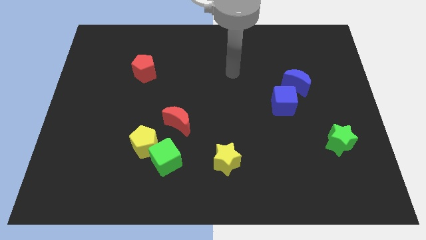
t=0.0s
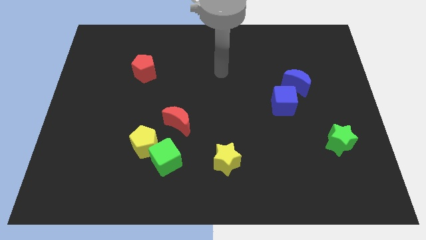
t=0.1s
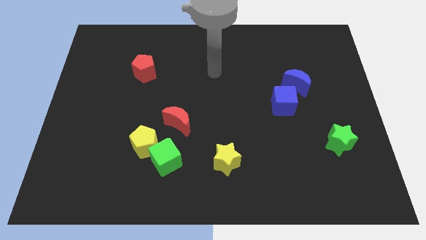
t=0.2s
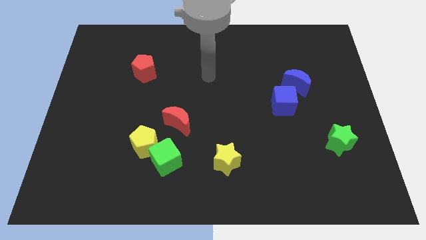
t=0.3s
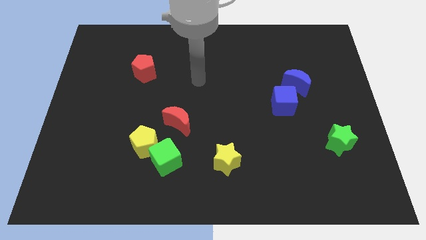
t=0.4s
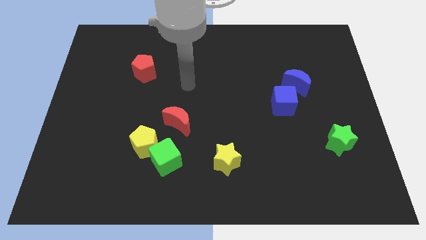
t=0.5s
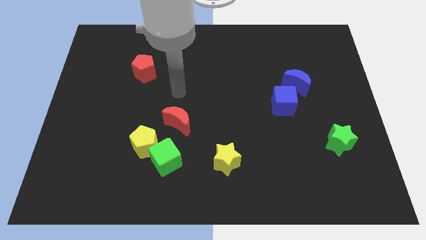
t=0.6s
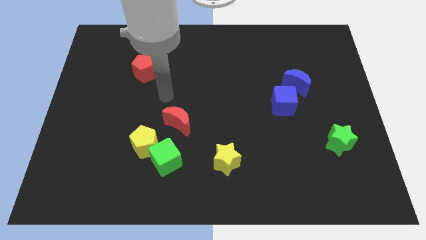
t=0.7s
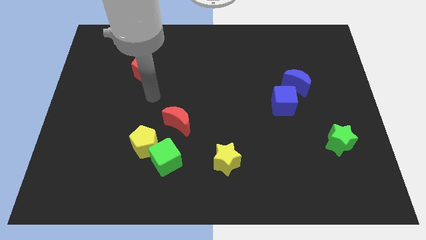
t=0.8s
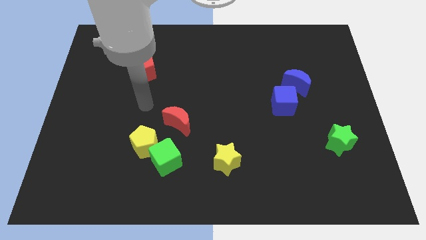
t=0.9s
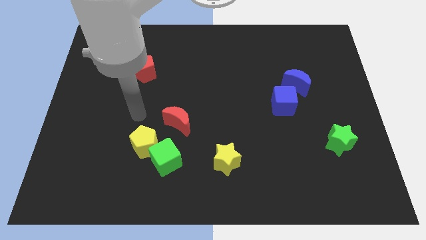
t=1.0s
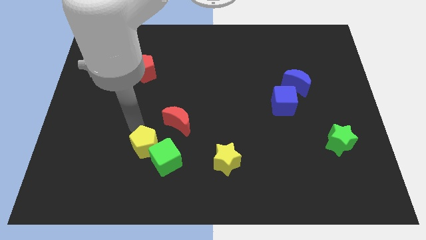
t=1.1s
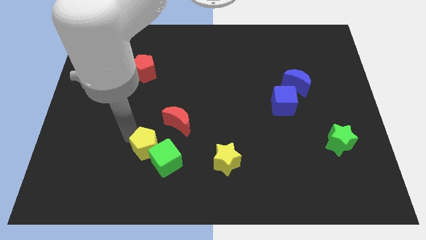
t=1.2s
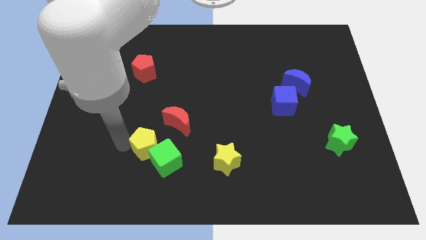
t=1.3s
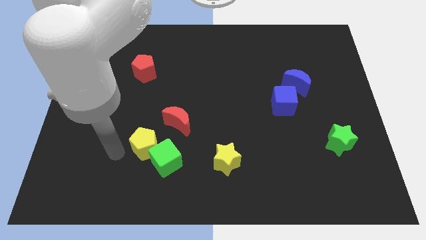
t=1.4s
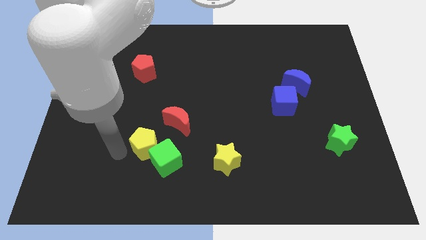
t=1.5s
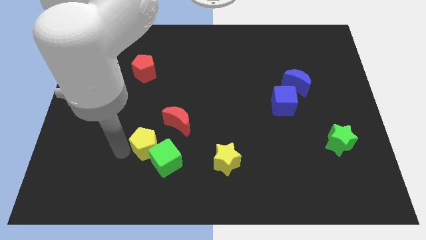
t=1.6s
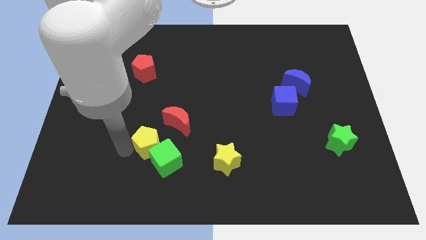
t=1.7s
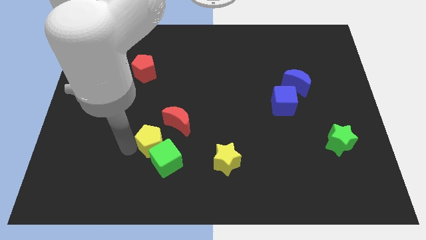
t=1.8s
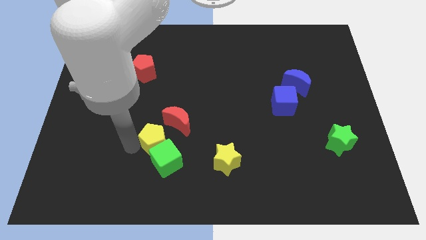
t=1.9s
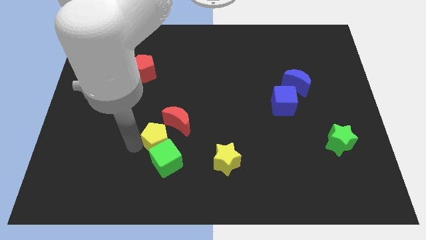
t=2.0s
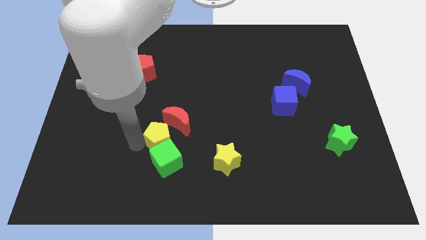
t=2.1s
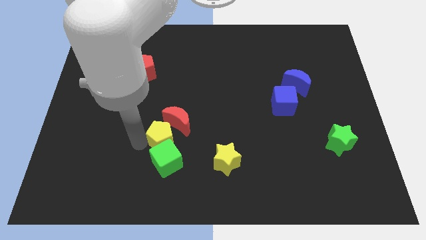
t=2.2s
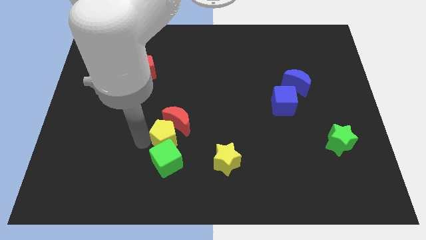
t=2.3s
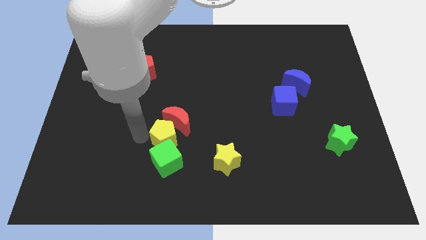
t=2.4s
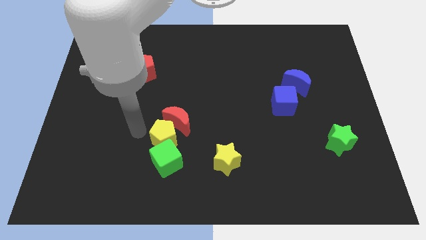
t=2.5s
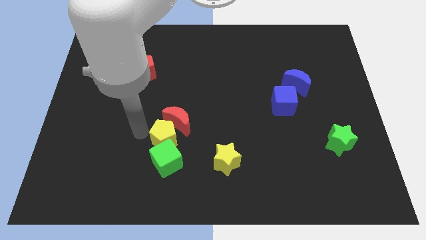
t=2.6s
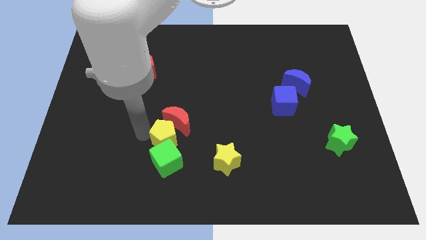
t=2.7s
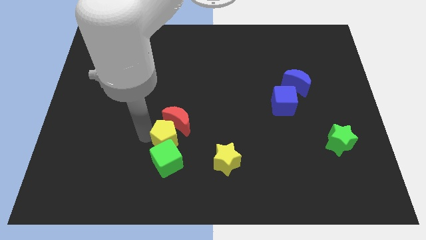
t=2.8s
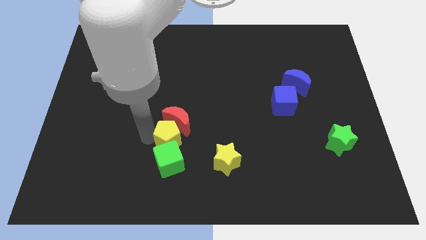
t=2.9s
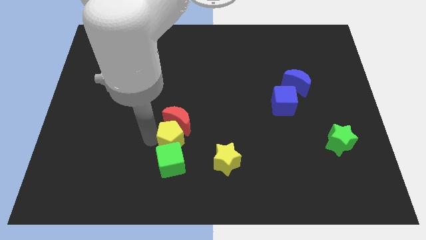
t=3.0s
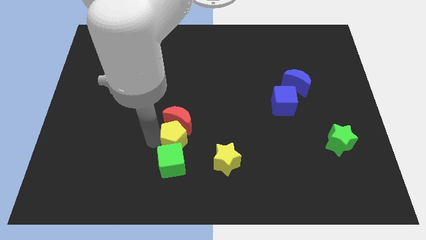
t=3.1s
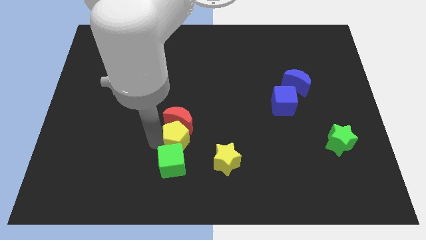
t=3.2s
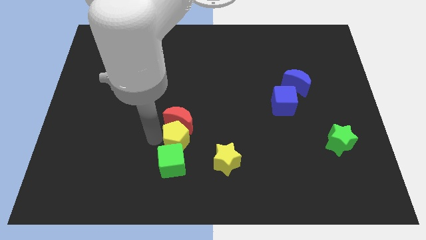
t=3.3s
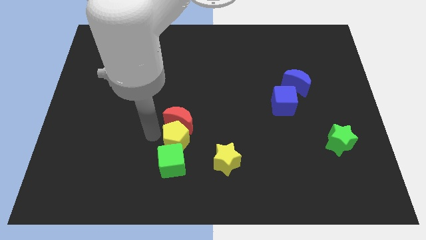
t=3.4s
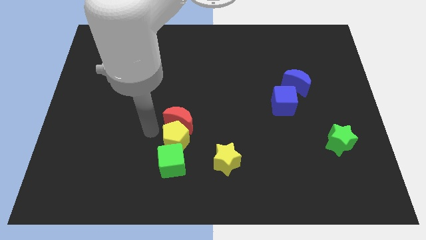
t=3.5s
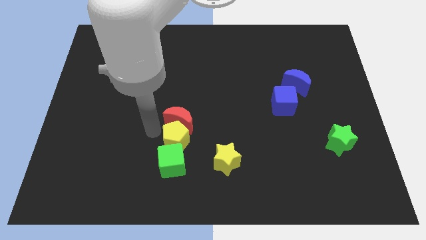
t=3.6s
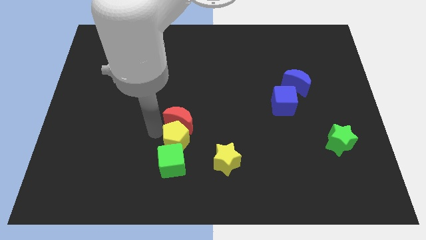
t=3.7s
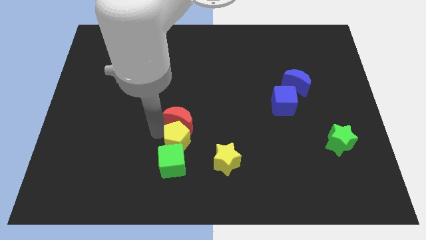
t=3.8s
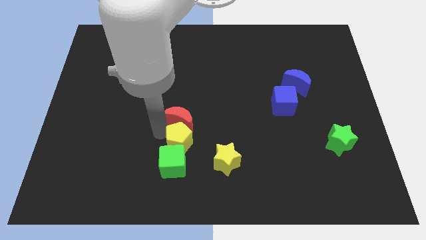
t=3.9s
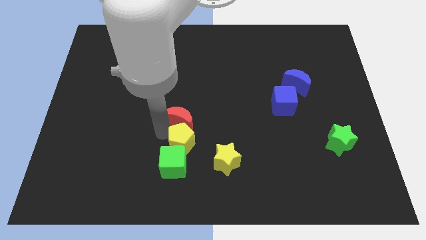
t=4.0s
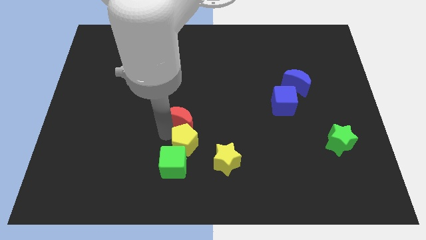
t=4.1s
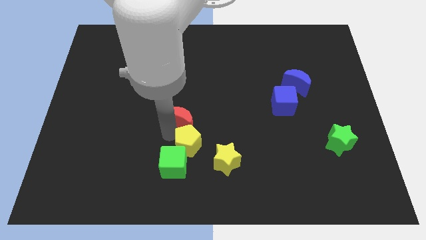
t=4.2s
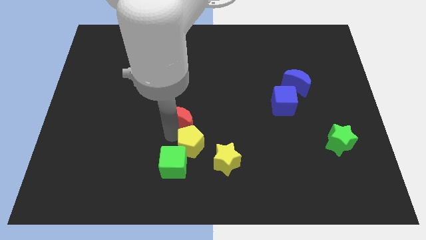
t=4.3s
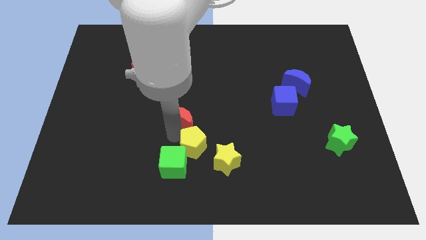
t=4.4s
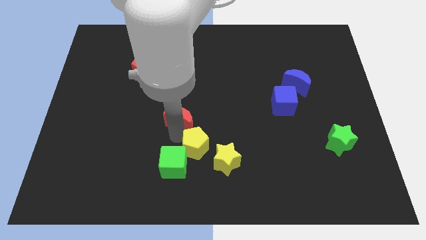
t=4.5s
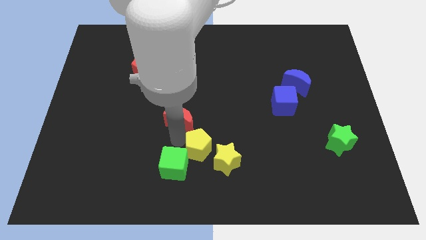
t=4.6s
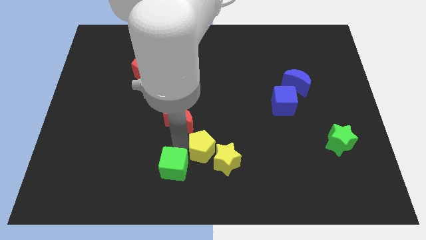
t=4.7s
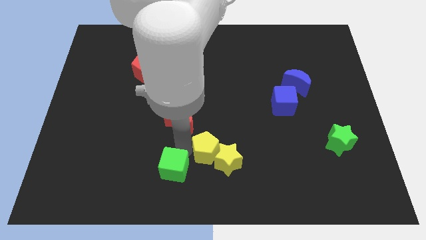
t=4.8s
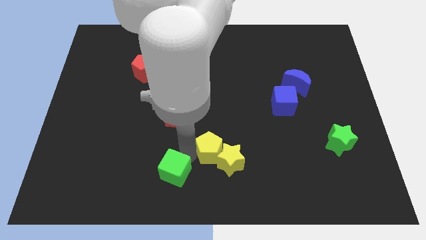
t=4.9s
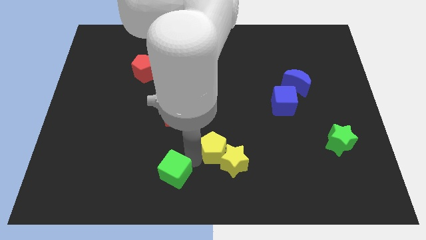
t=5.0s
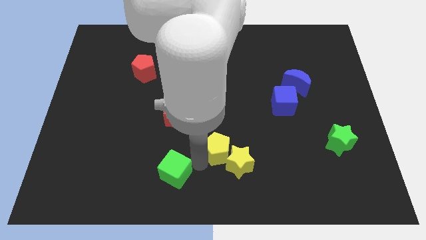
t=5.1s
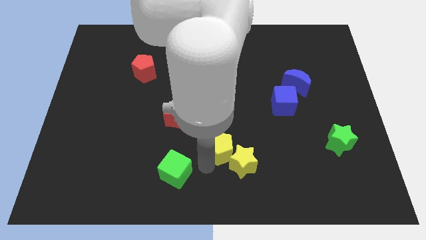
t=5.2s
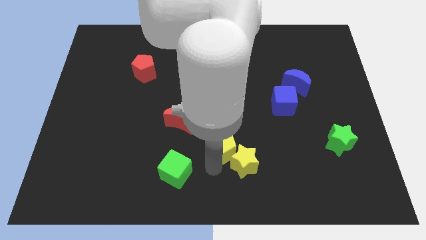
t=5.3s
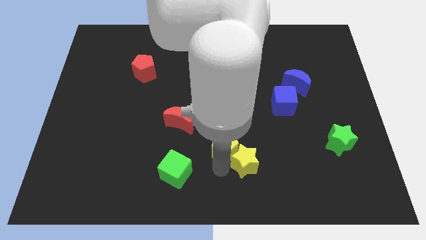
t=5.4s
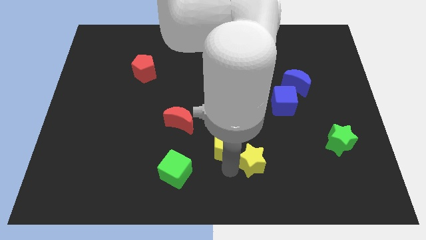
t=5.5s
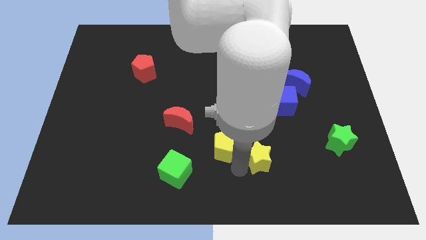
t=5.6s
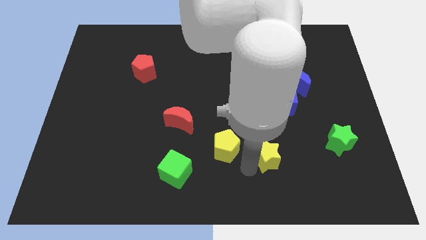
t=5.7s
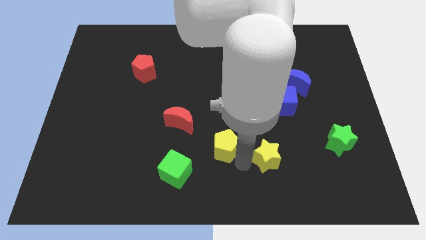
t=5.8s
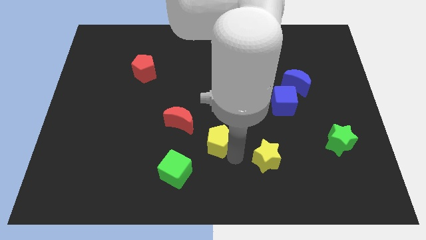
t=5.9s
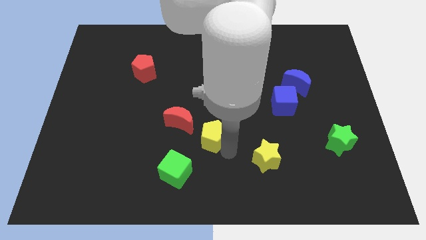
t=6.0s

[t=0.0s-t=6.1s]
move the yellow pentagon somewhat up and then right

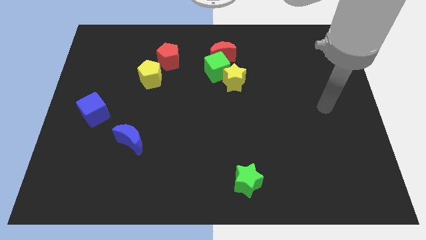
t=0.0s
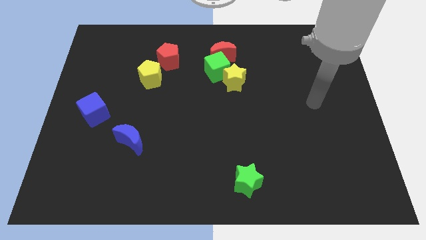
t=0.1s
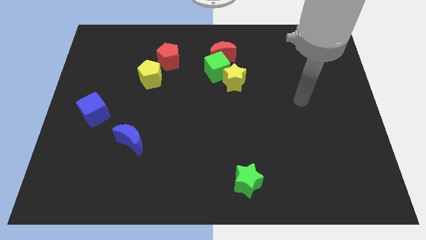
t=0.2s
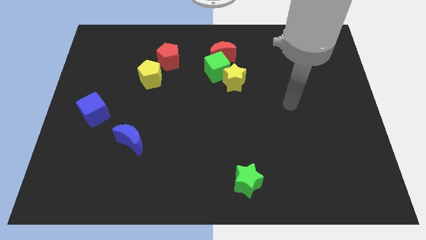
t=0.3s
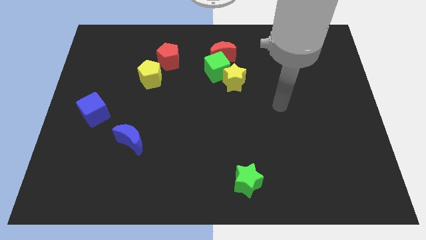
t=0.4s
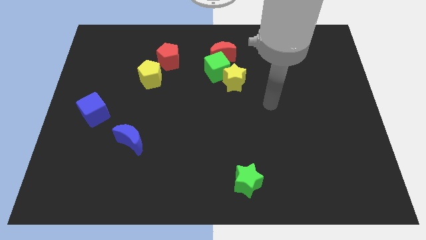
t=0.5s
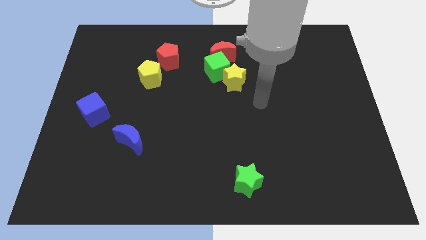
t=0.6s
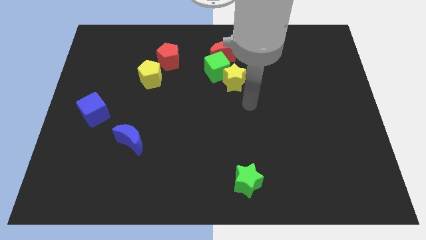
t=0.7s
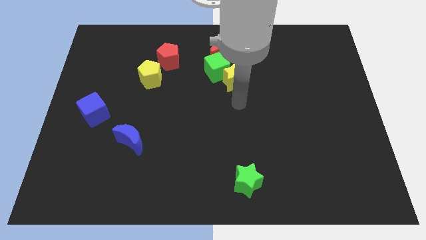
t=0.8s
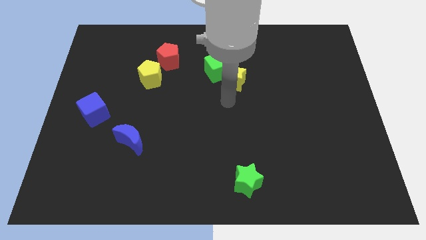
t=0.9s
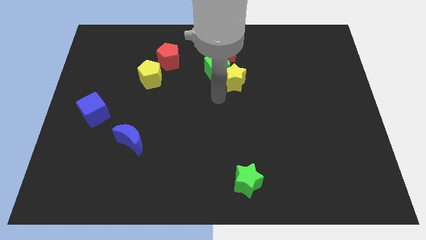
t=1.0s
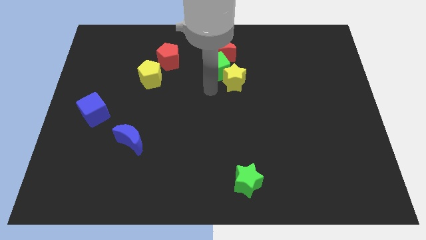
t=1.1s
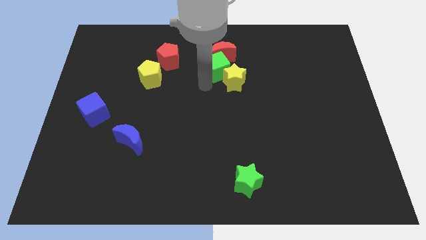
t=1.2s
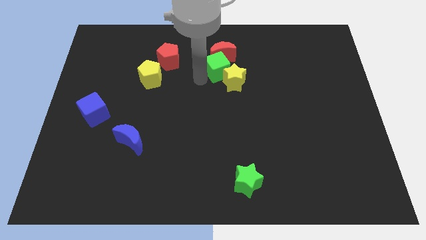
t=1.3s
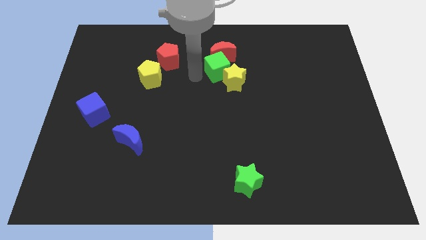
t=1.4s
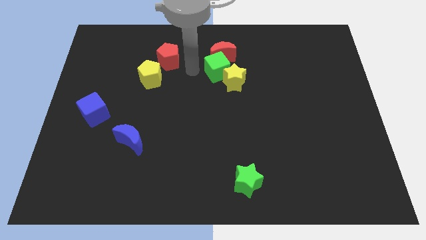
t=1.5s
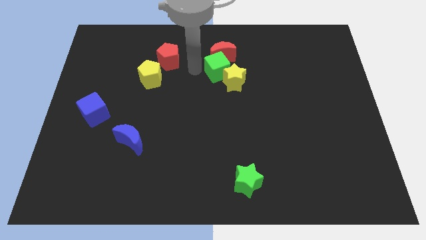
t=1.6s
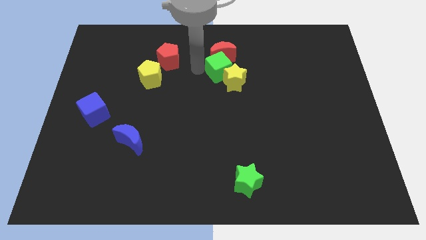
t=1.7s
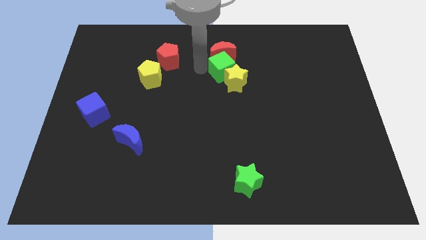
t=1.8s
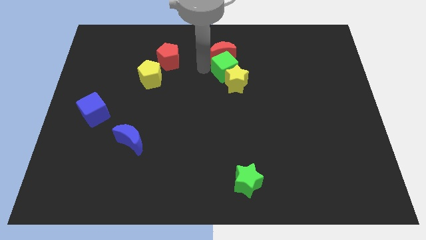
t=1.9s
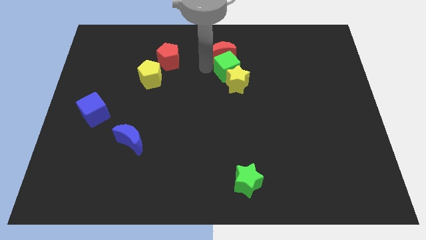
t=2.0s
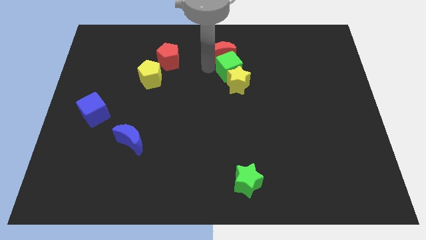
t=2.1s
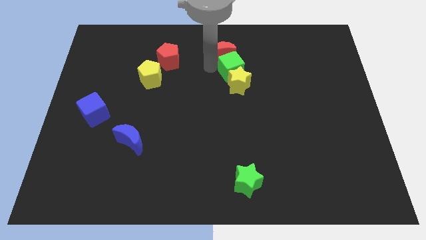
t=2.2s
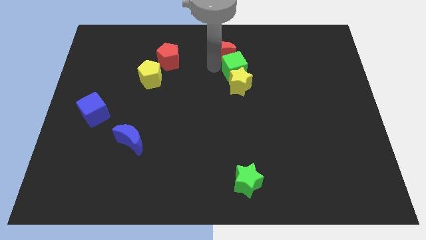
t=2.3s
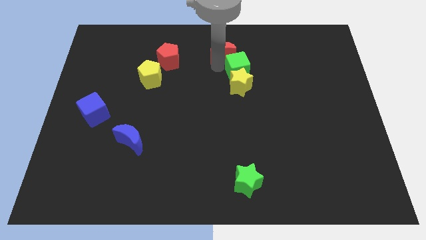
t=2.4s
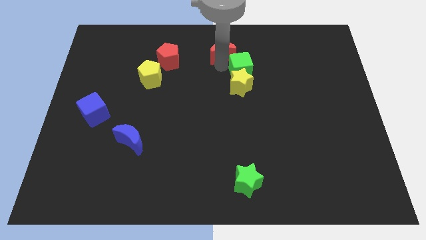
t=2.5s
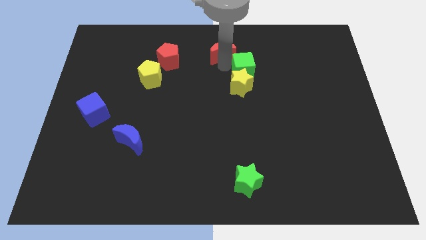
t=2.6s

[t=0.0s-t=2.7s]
slightly push the green cube to the right
